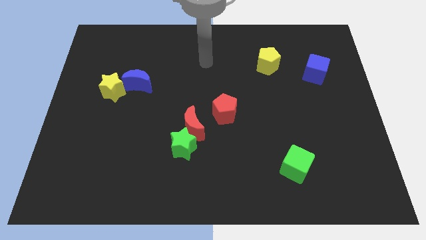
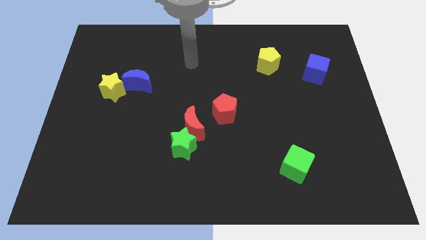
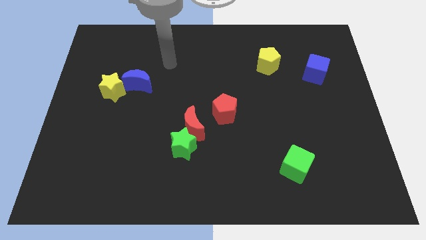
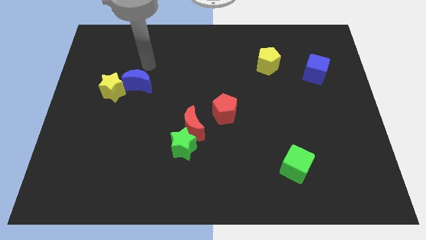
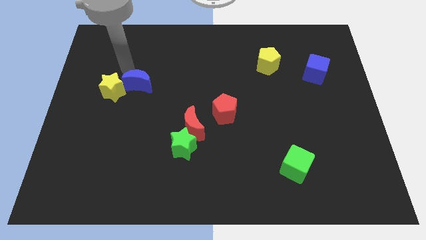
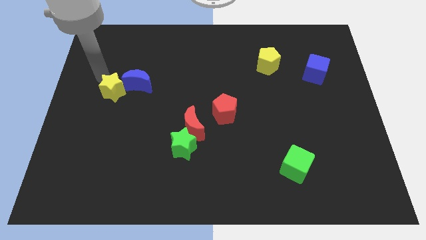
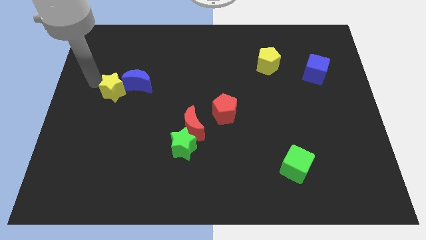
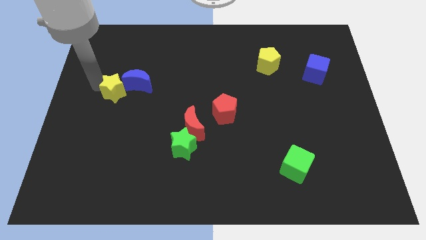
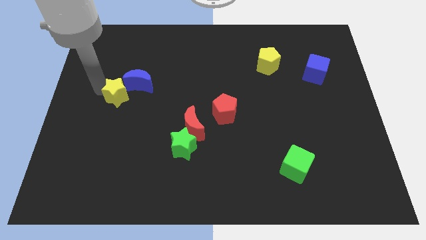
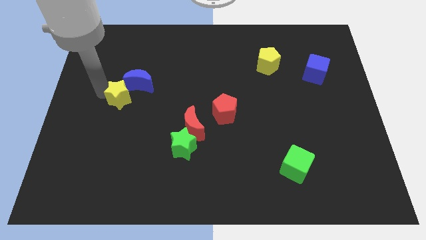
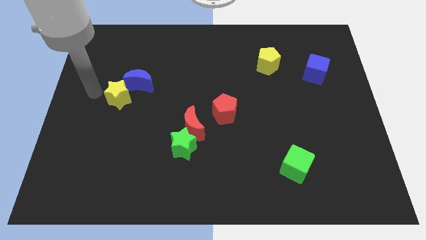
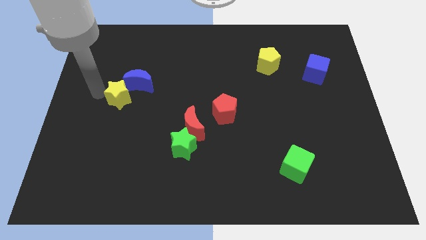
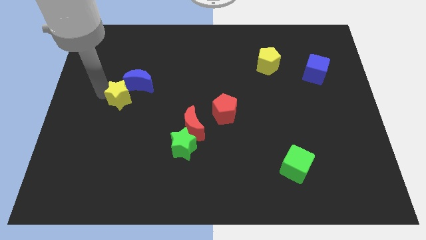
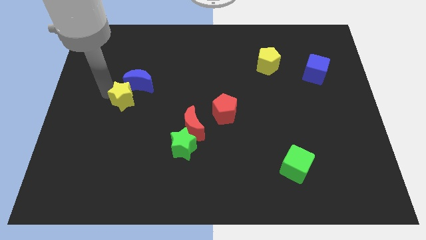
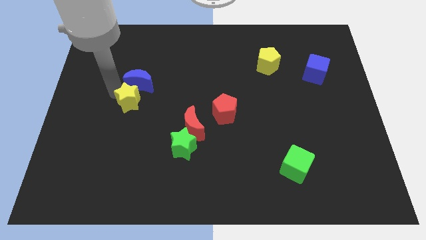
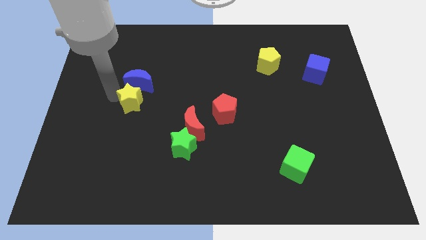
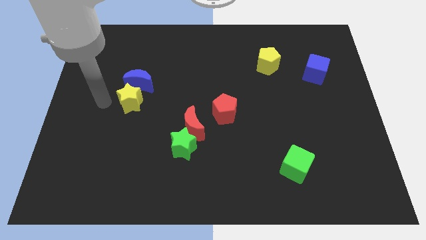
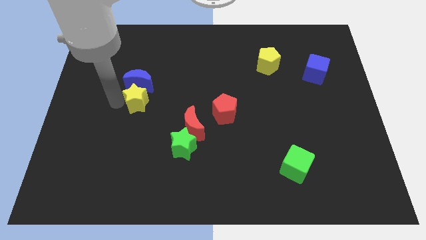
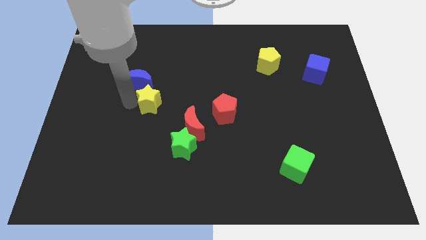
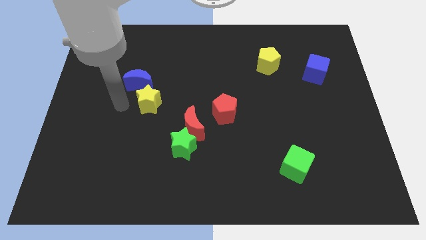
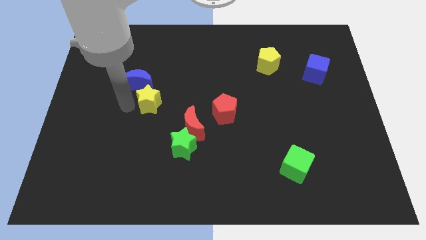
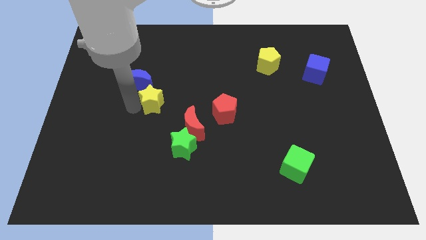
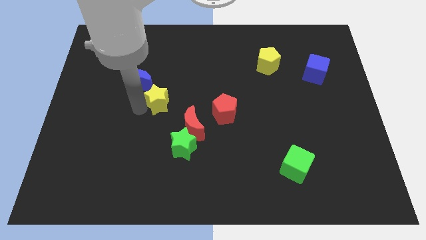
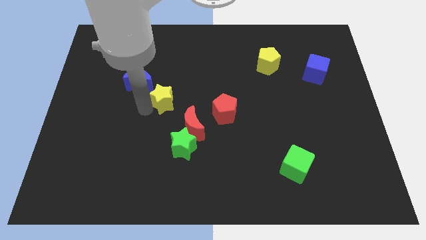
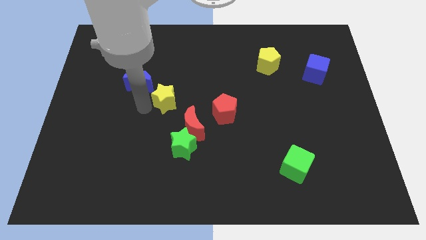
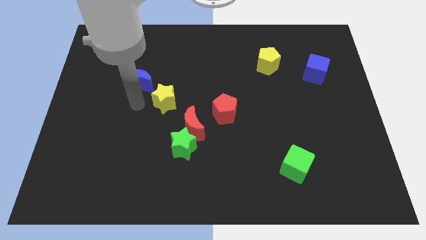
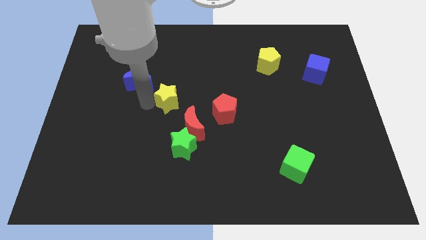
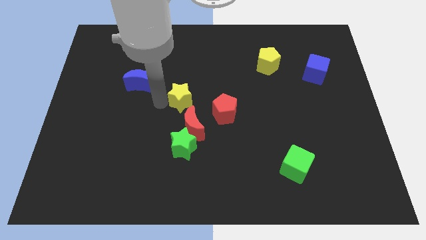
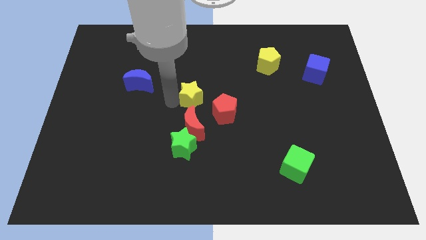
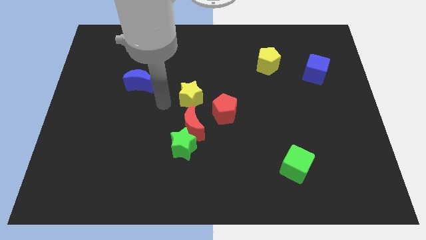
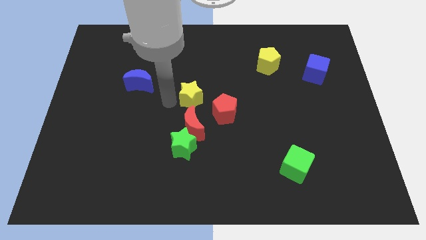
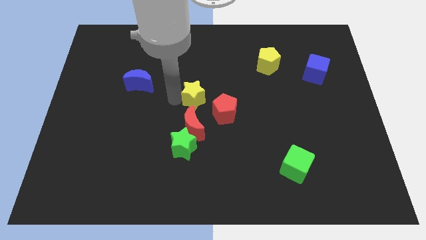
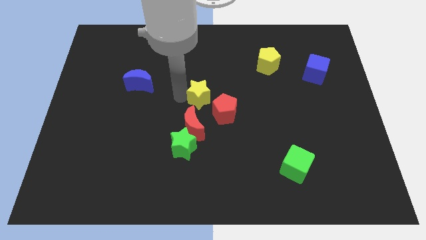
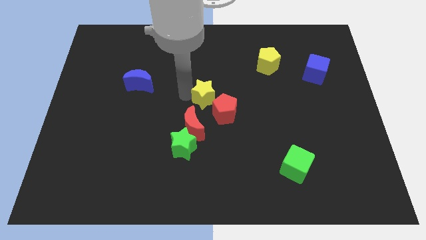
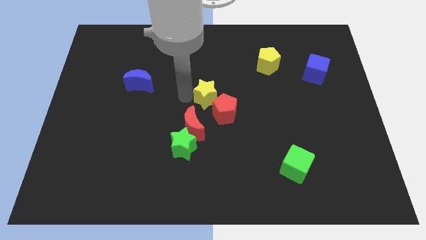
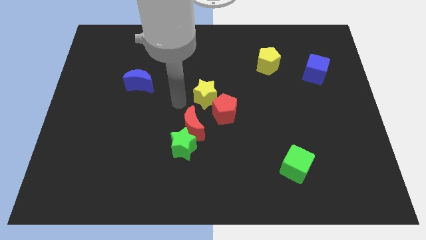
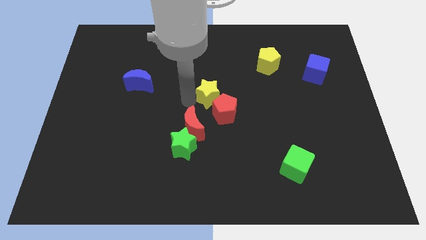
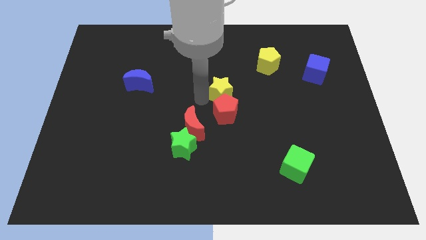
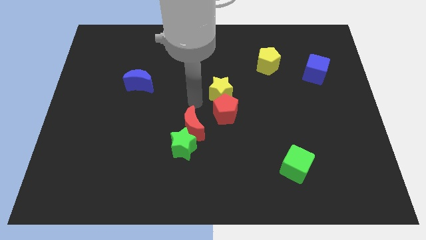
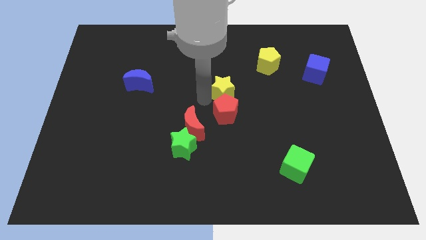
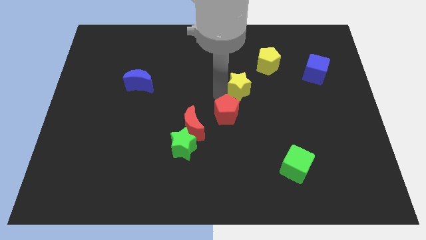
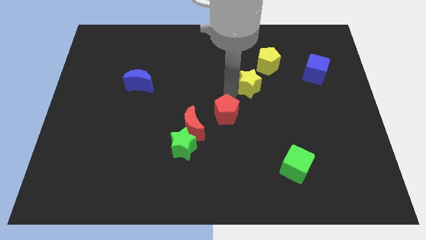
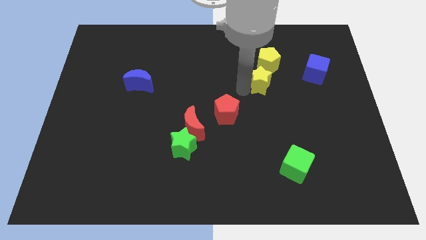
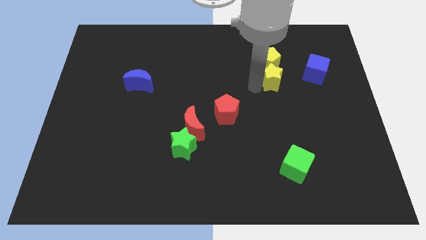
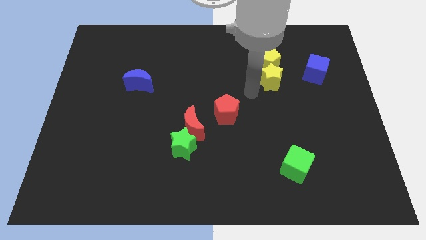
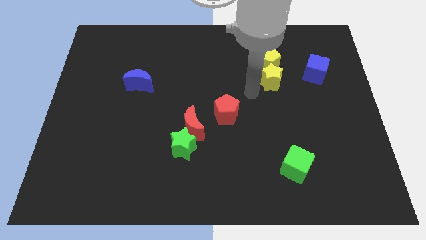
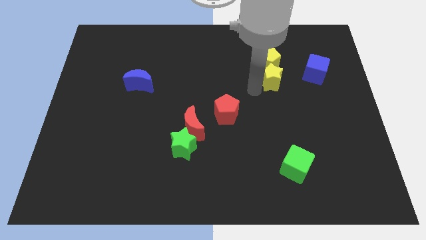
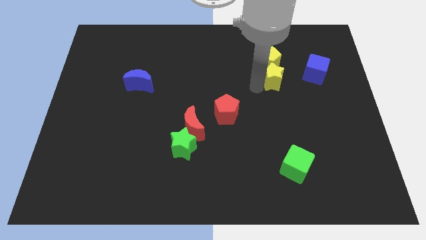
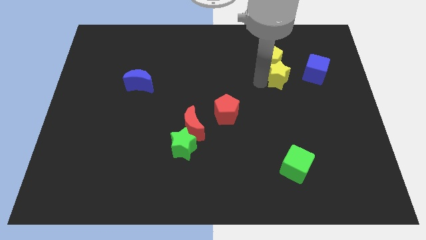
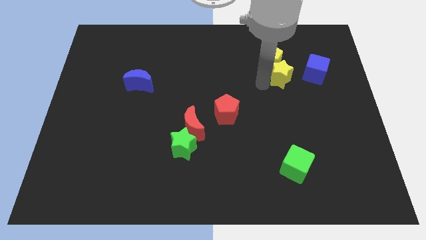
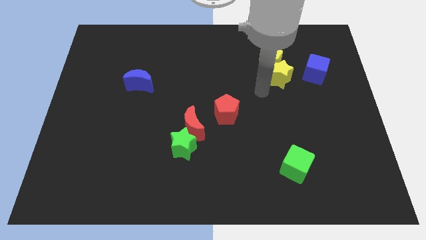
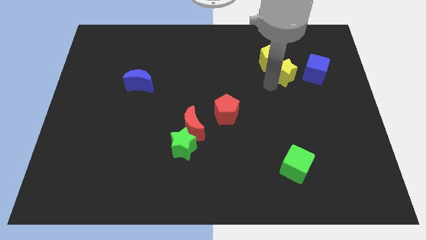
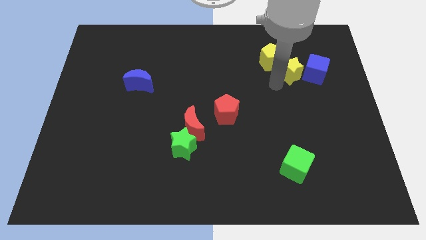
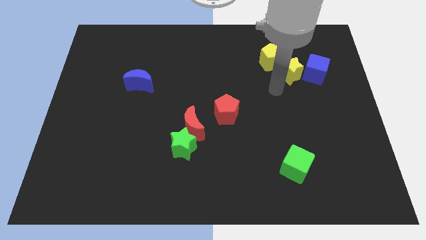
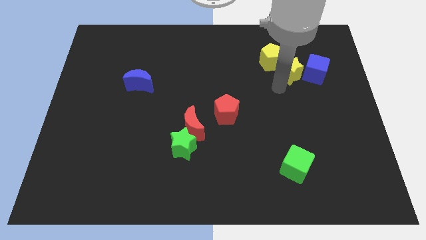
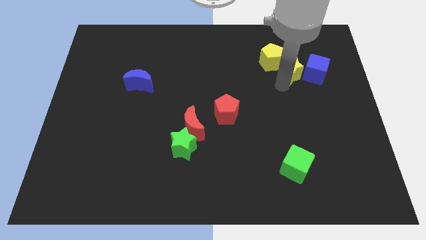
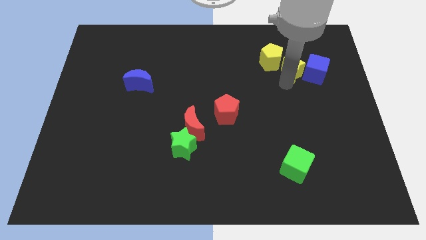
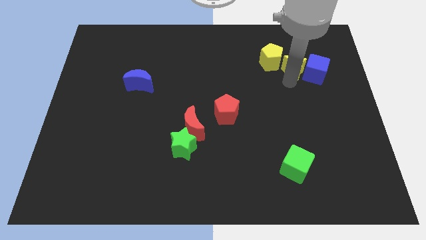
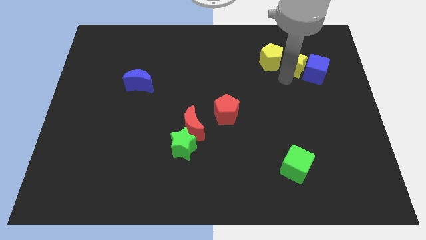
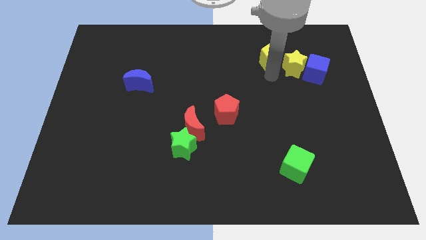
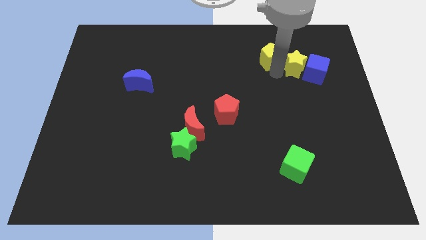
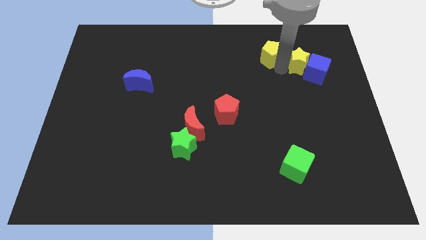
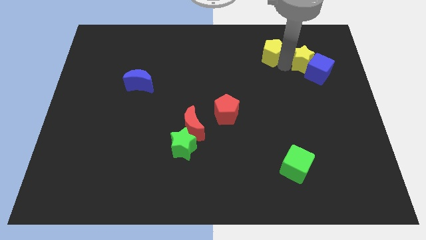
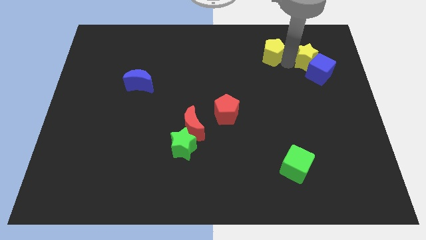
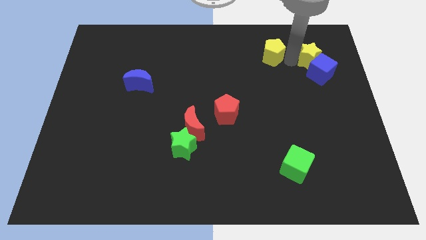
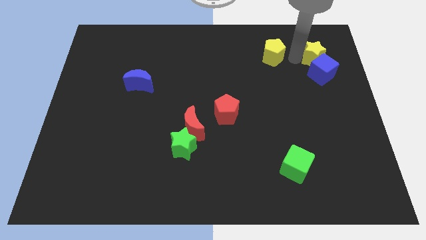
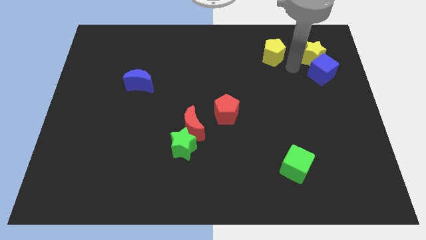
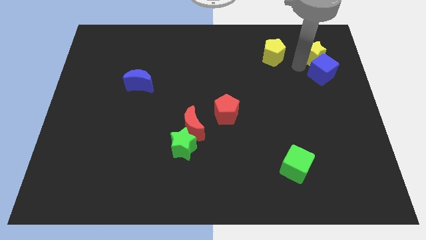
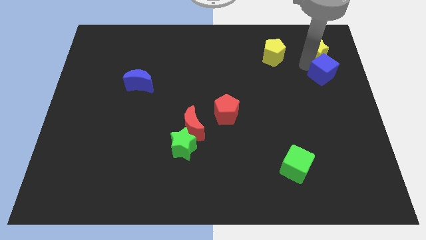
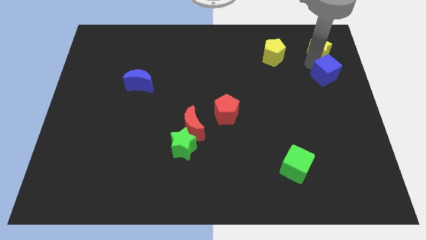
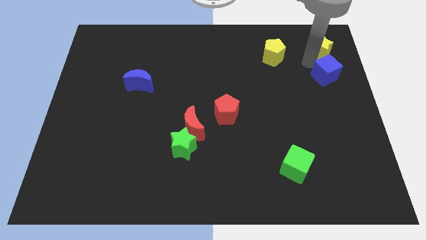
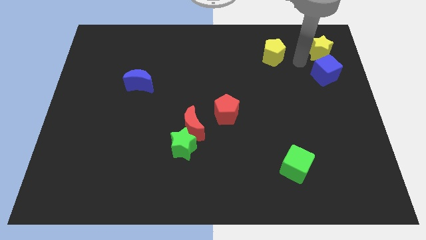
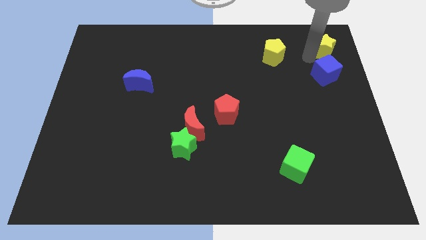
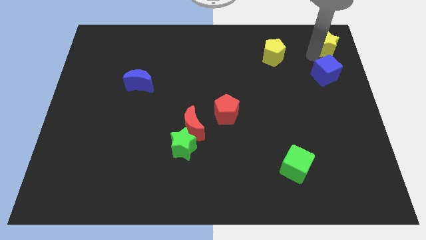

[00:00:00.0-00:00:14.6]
put the yellow star to the upper right corner
